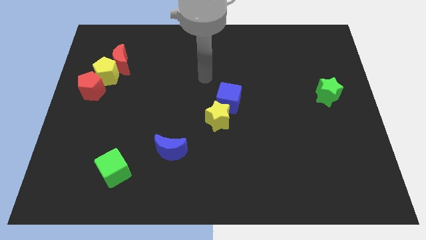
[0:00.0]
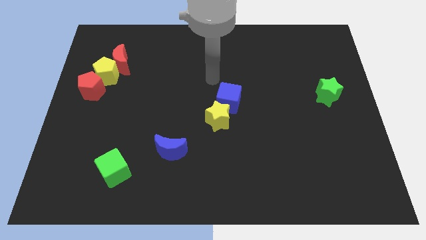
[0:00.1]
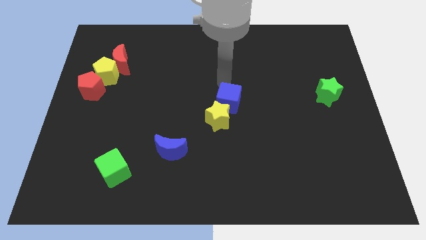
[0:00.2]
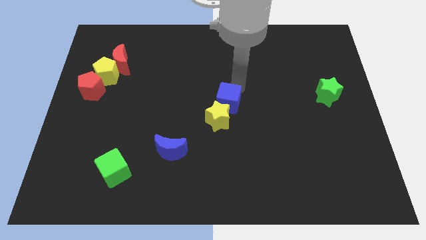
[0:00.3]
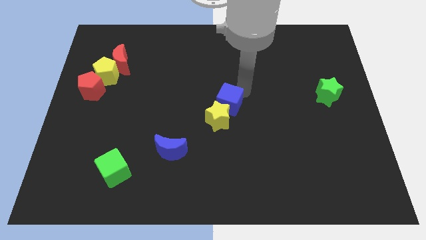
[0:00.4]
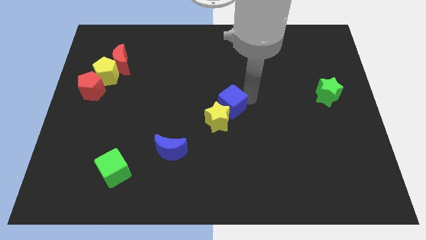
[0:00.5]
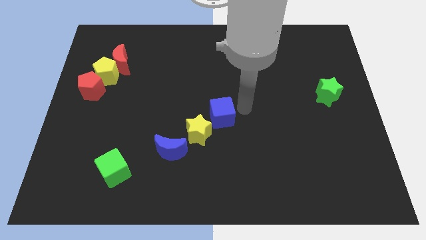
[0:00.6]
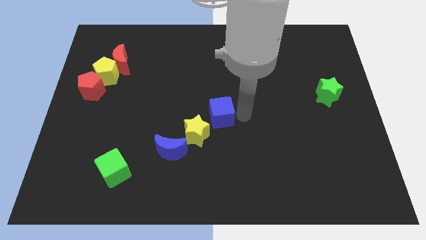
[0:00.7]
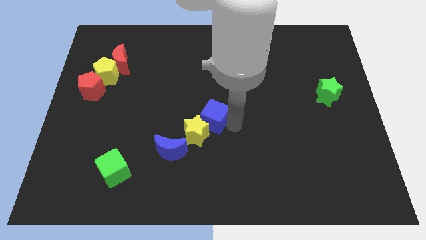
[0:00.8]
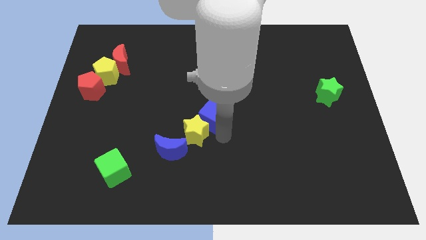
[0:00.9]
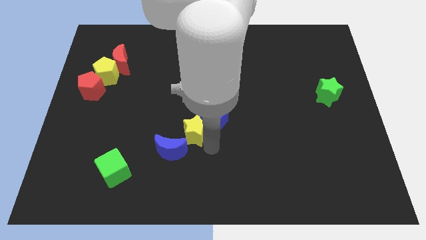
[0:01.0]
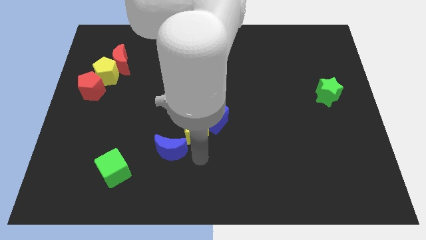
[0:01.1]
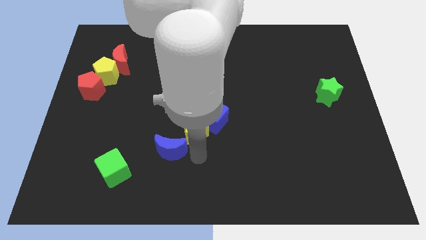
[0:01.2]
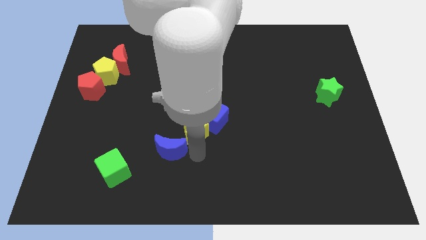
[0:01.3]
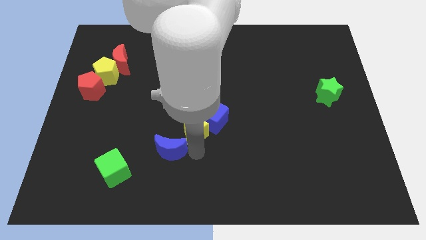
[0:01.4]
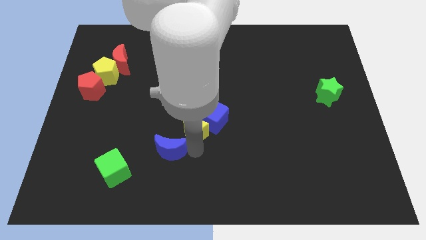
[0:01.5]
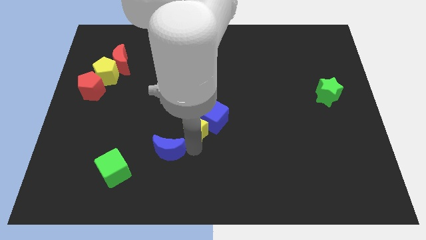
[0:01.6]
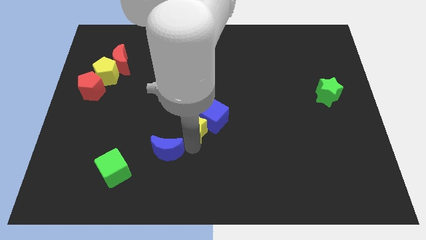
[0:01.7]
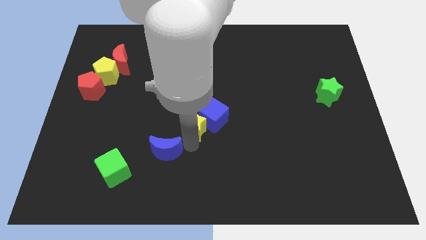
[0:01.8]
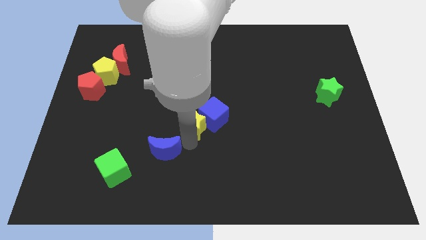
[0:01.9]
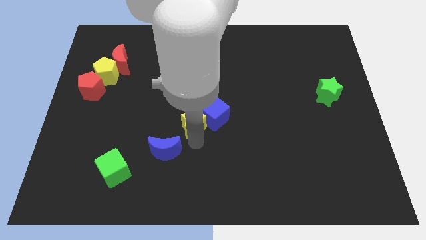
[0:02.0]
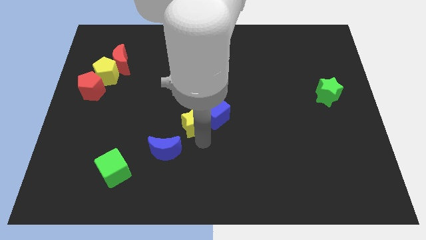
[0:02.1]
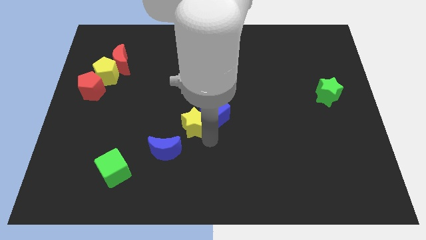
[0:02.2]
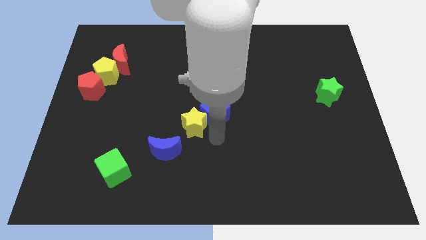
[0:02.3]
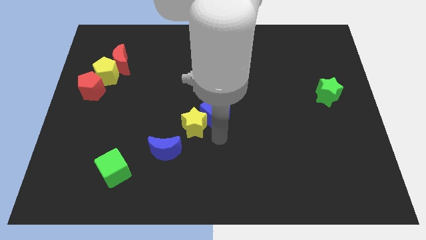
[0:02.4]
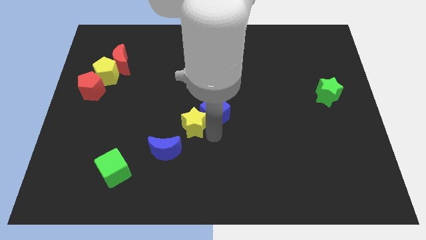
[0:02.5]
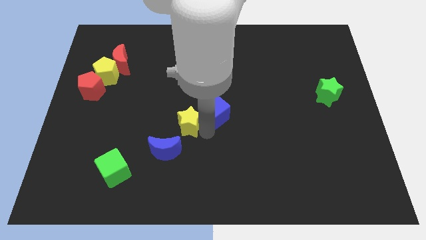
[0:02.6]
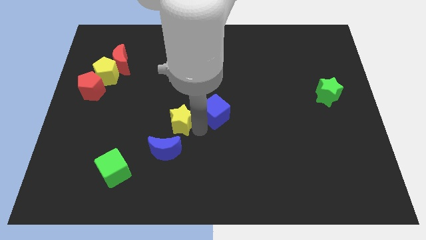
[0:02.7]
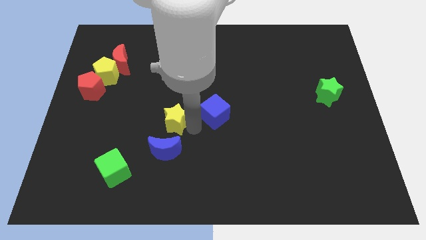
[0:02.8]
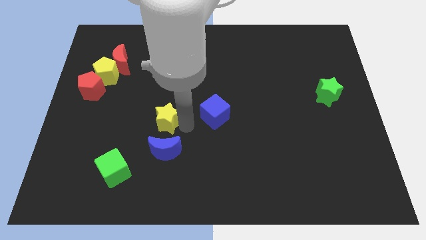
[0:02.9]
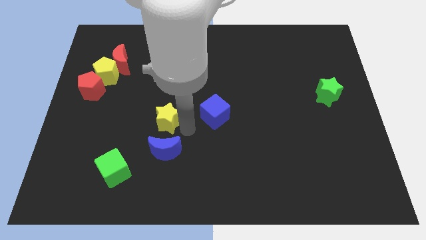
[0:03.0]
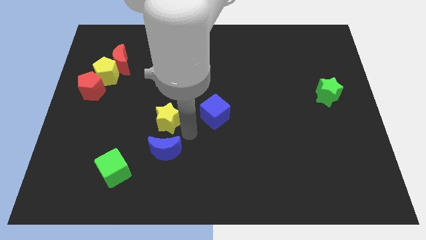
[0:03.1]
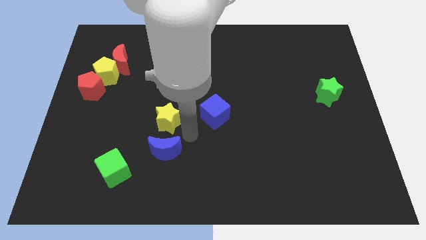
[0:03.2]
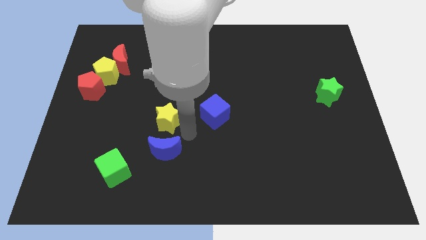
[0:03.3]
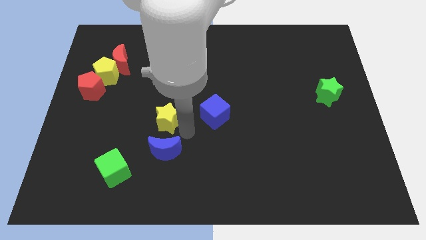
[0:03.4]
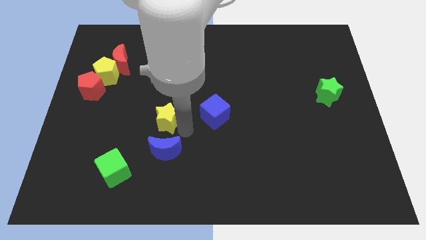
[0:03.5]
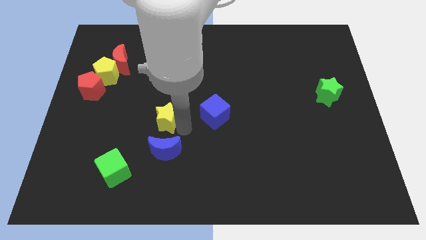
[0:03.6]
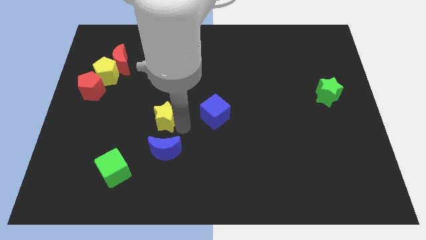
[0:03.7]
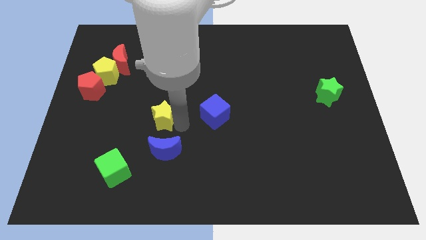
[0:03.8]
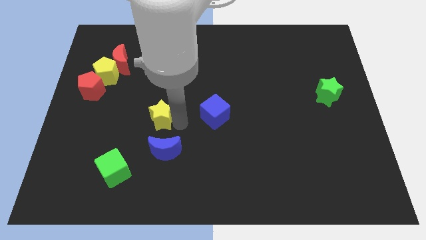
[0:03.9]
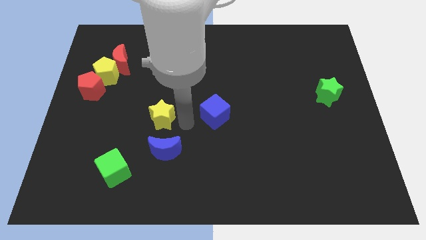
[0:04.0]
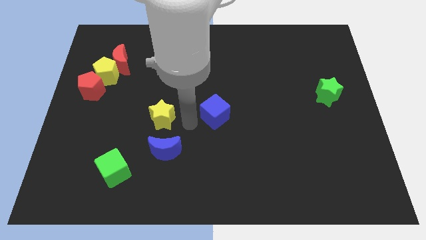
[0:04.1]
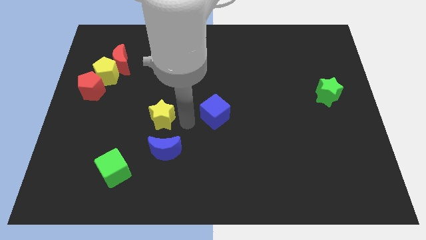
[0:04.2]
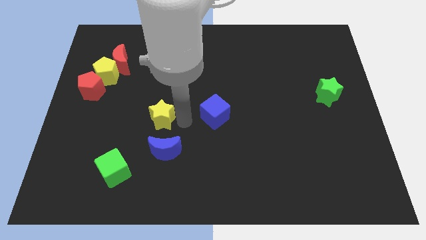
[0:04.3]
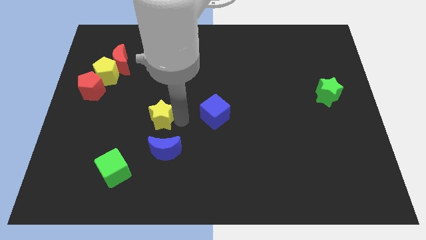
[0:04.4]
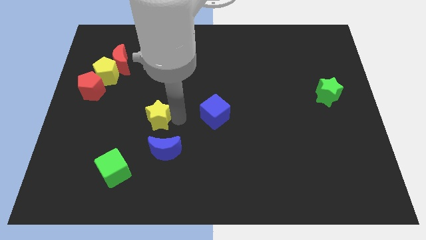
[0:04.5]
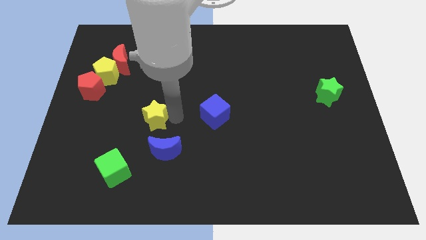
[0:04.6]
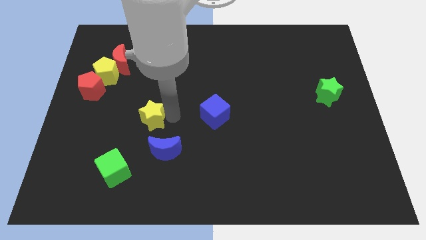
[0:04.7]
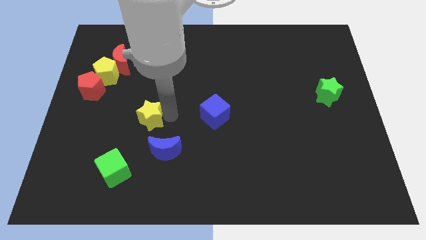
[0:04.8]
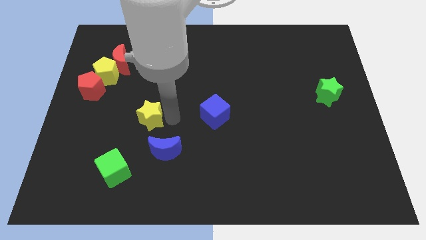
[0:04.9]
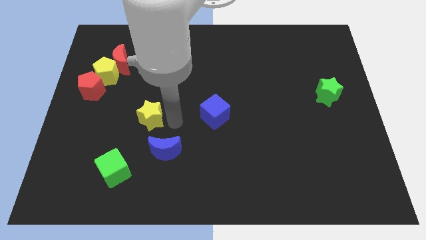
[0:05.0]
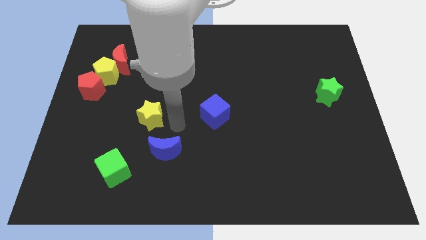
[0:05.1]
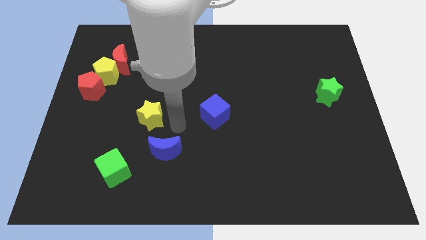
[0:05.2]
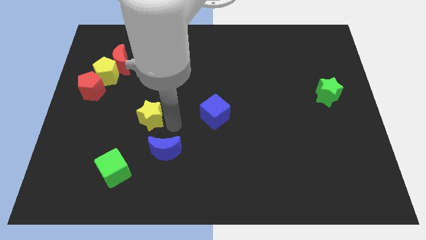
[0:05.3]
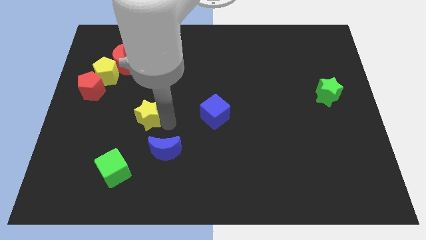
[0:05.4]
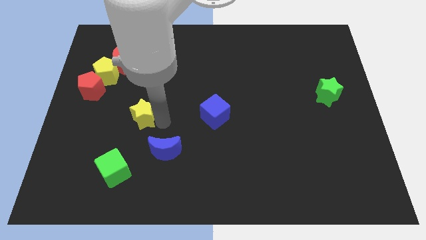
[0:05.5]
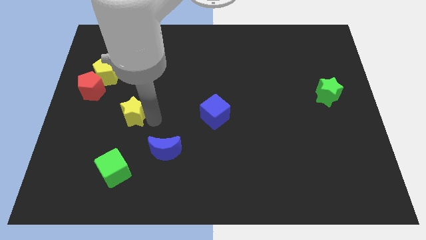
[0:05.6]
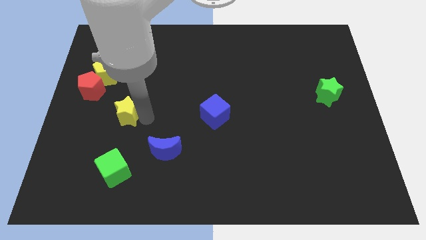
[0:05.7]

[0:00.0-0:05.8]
slide the yellow star diagonally down and to the right of the red pentagon

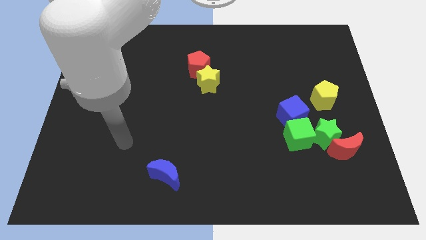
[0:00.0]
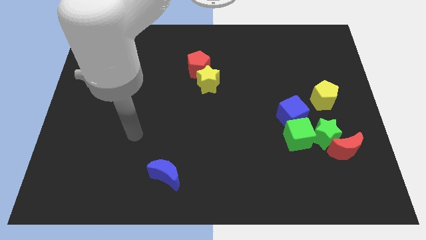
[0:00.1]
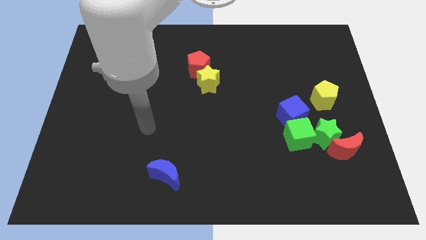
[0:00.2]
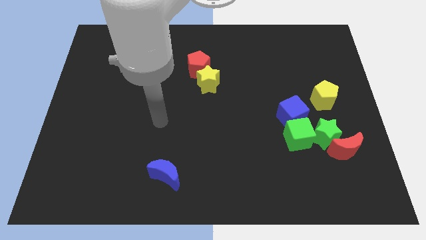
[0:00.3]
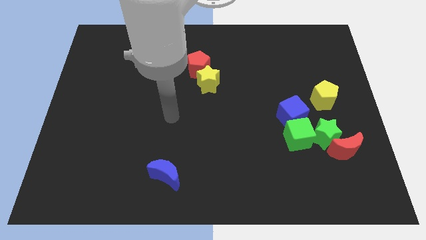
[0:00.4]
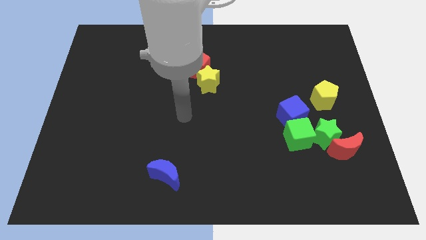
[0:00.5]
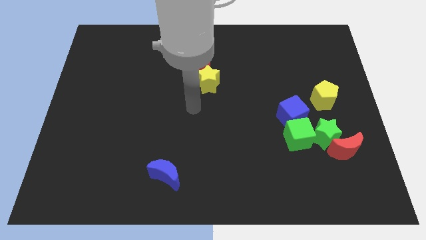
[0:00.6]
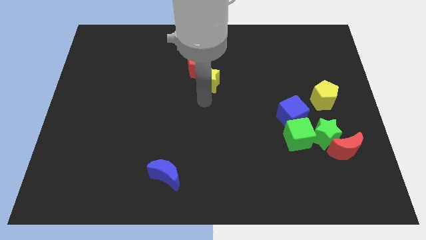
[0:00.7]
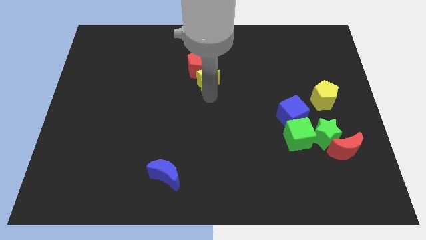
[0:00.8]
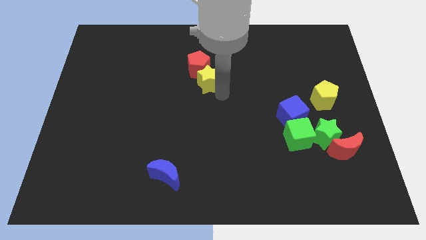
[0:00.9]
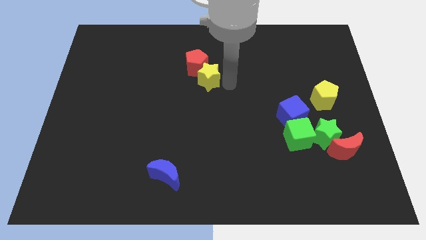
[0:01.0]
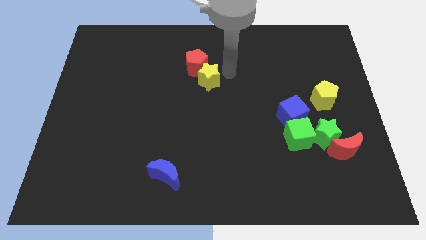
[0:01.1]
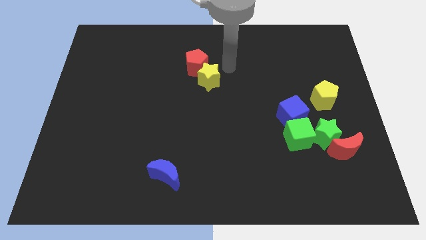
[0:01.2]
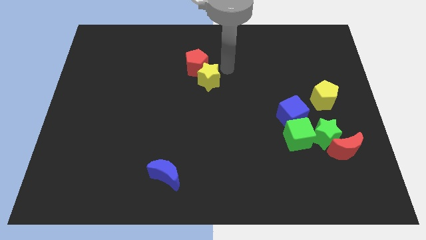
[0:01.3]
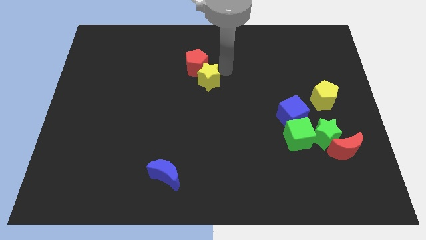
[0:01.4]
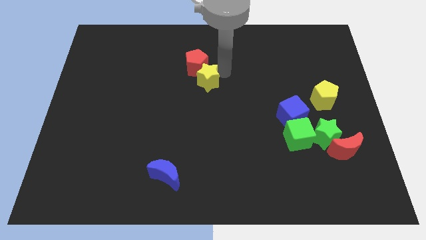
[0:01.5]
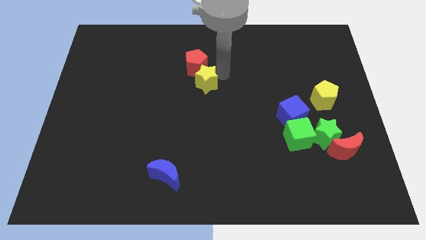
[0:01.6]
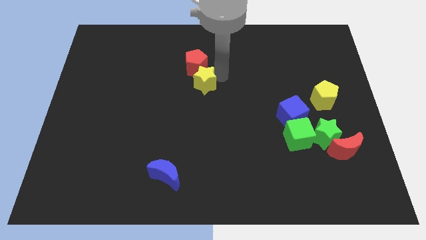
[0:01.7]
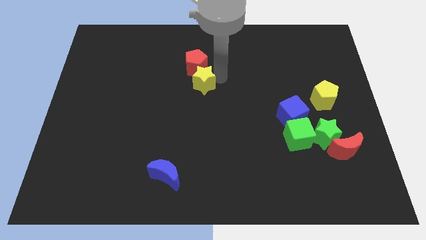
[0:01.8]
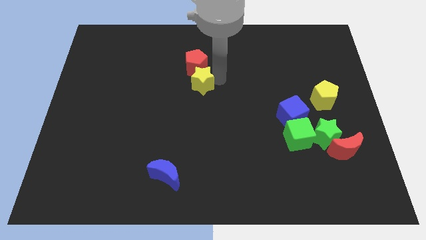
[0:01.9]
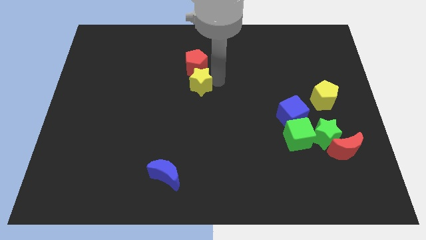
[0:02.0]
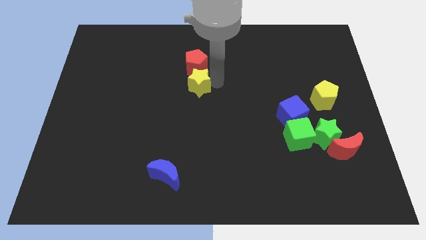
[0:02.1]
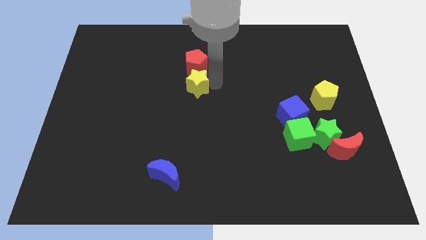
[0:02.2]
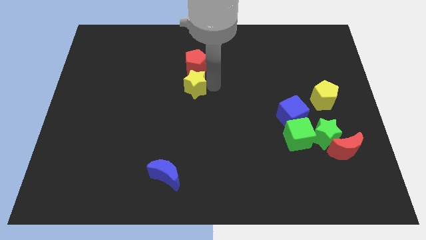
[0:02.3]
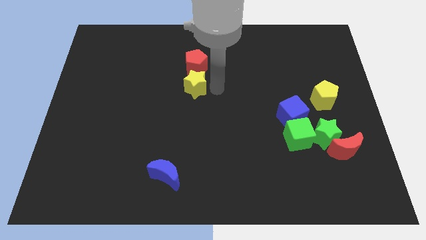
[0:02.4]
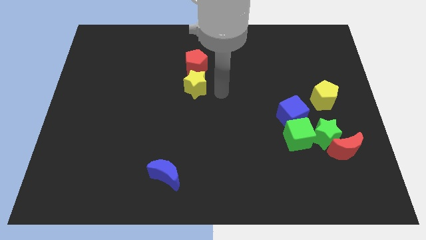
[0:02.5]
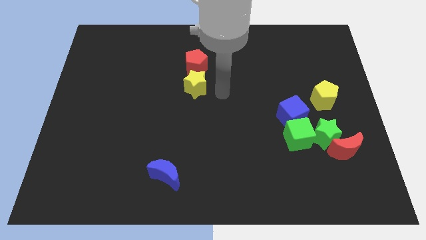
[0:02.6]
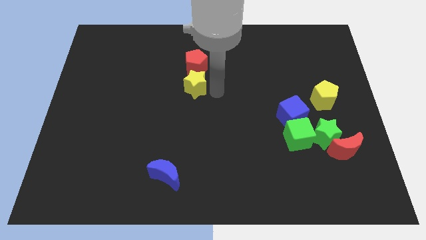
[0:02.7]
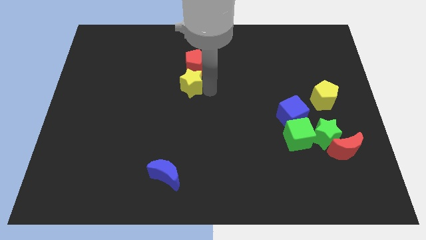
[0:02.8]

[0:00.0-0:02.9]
put the yellow star to the bottom left side of the red pentagon
